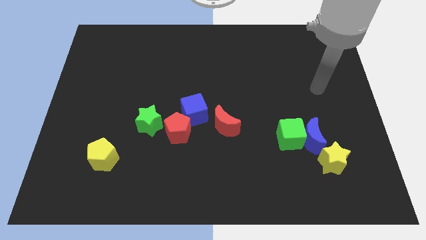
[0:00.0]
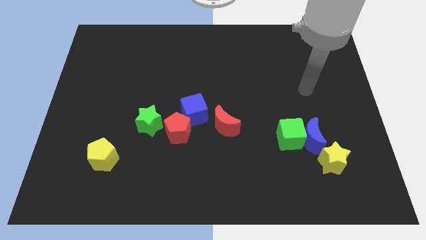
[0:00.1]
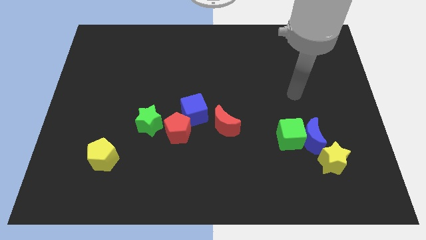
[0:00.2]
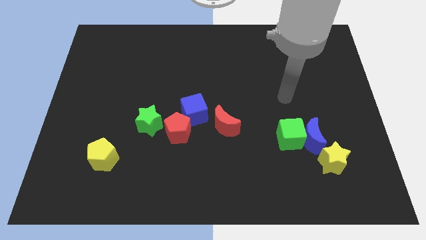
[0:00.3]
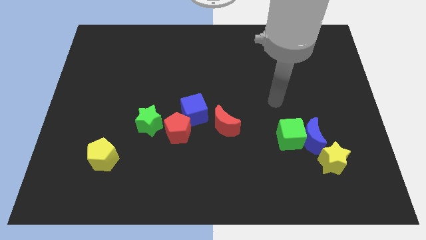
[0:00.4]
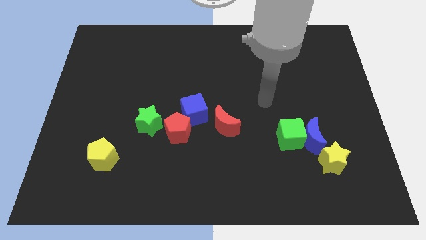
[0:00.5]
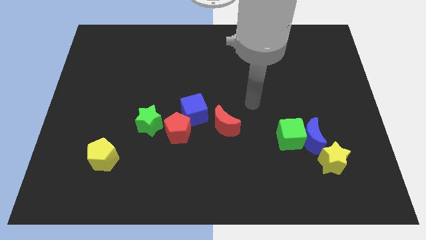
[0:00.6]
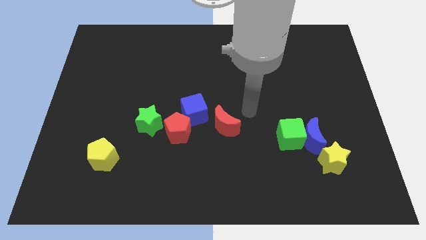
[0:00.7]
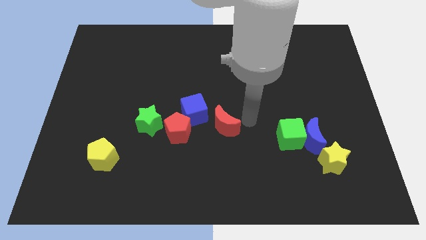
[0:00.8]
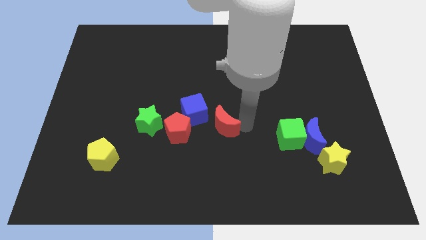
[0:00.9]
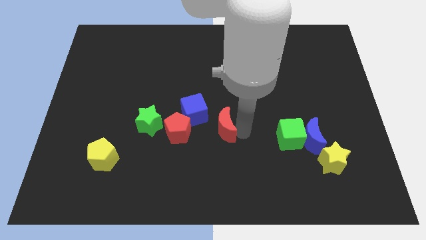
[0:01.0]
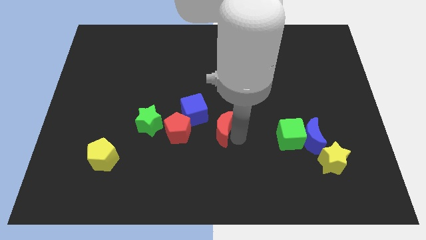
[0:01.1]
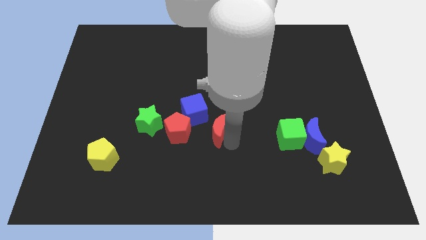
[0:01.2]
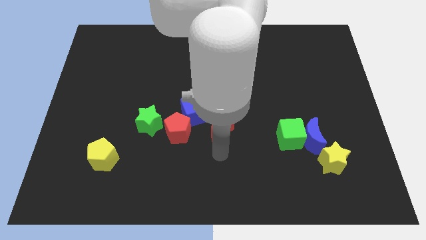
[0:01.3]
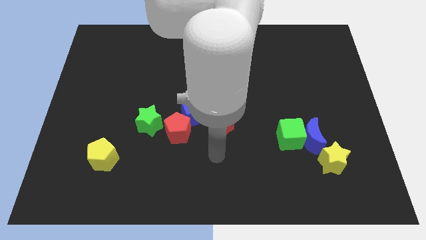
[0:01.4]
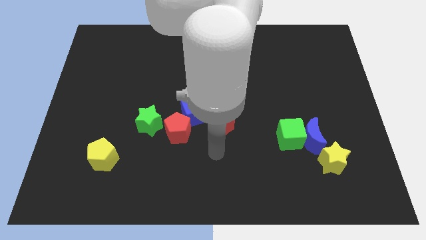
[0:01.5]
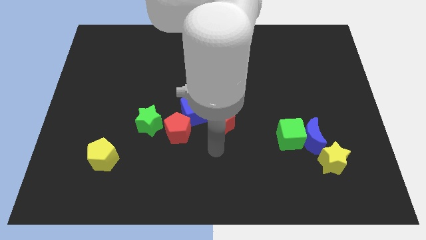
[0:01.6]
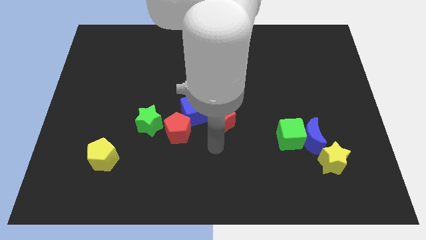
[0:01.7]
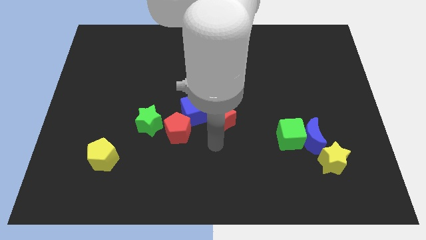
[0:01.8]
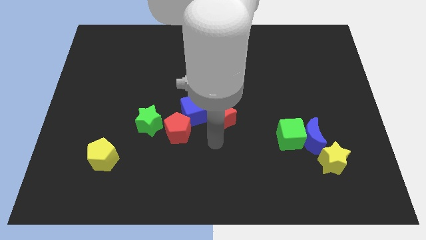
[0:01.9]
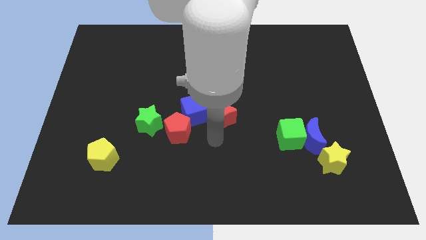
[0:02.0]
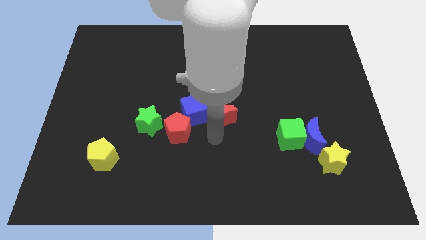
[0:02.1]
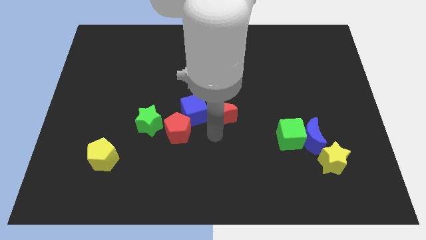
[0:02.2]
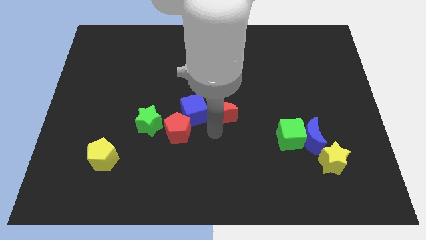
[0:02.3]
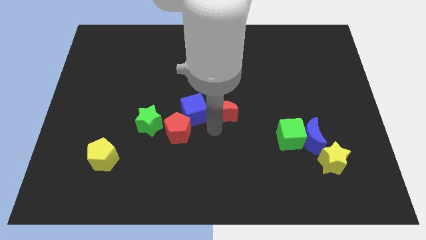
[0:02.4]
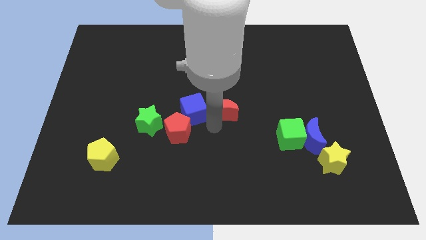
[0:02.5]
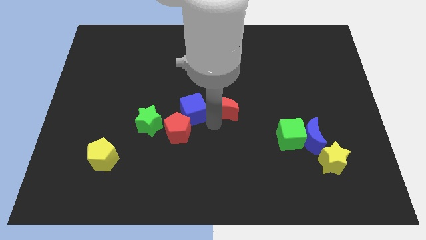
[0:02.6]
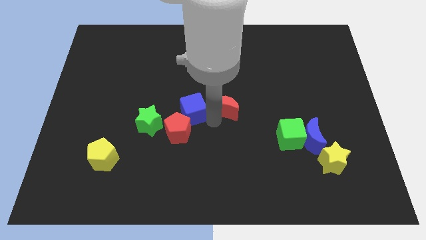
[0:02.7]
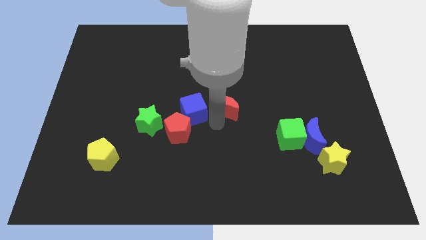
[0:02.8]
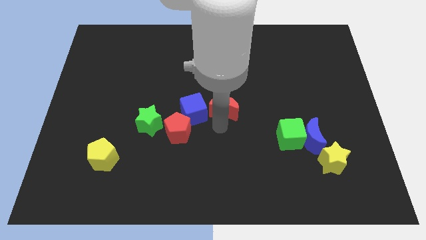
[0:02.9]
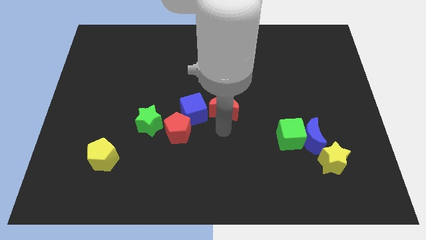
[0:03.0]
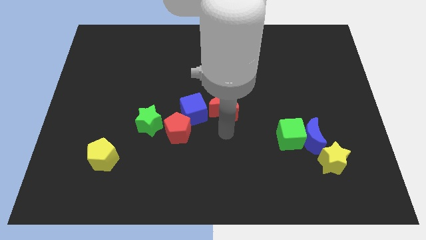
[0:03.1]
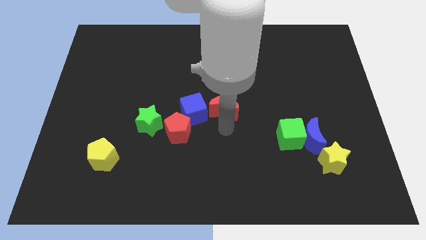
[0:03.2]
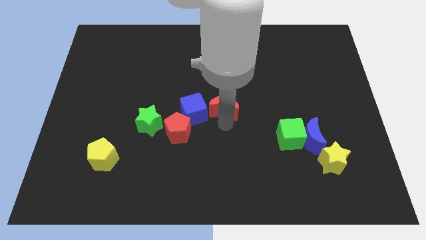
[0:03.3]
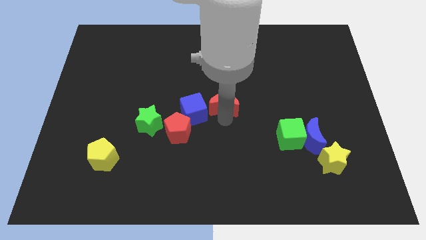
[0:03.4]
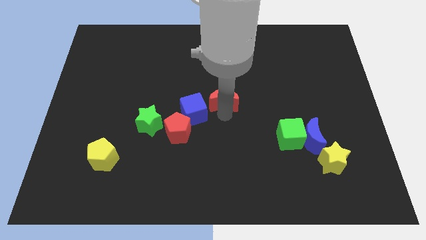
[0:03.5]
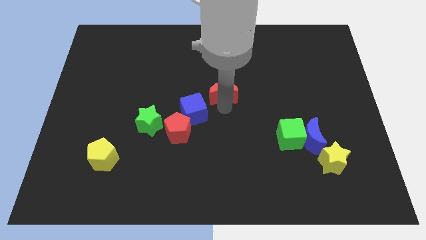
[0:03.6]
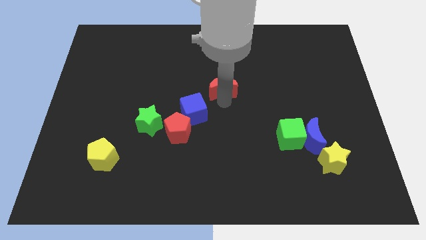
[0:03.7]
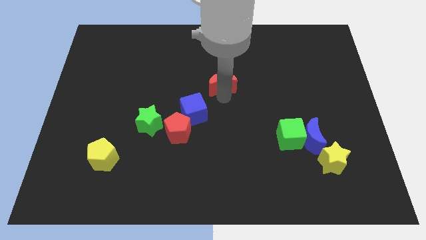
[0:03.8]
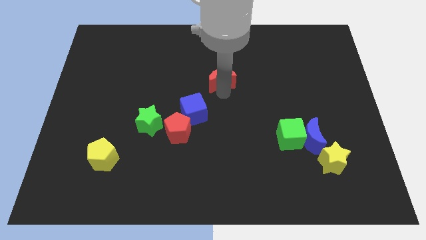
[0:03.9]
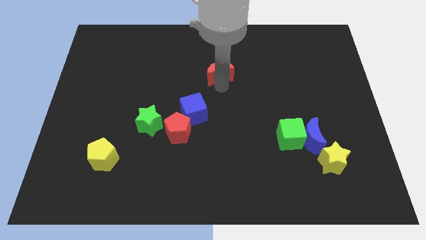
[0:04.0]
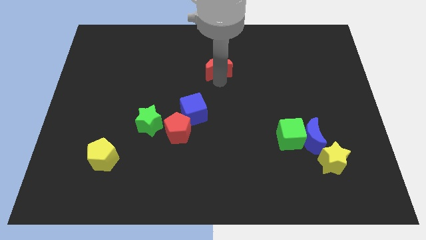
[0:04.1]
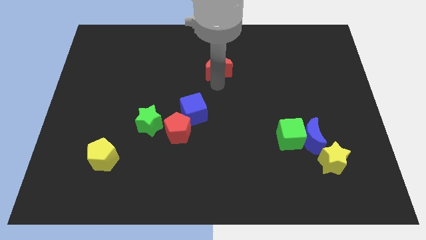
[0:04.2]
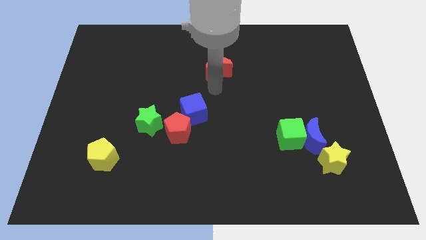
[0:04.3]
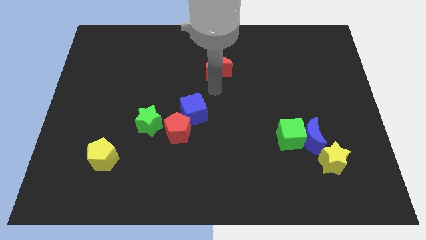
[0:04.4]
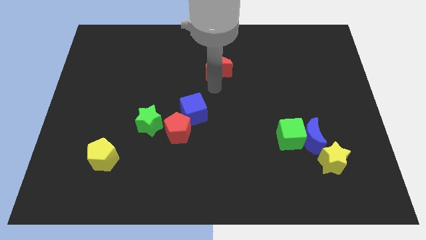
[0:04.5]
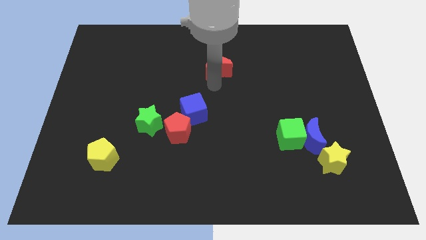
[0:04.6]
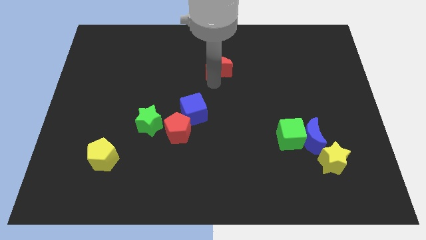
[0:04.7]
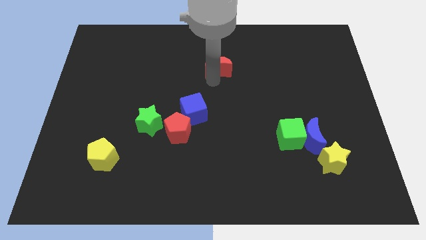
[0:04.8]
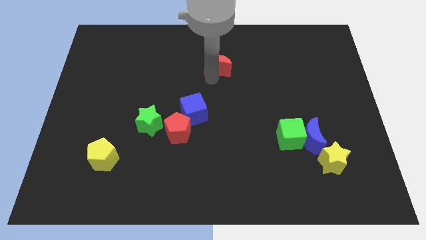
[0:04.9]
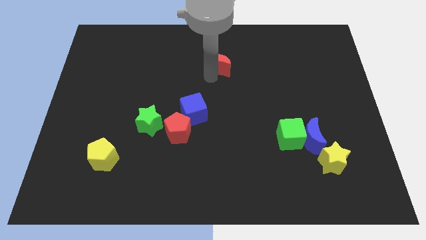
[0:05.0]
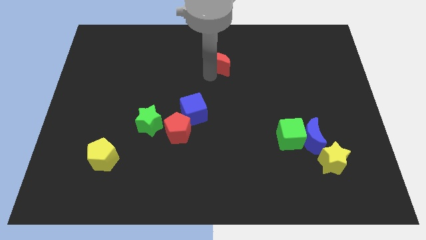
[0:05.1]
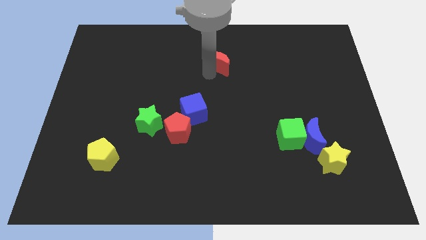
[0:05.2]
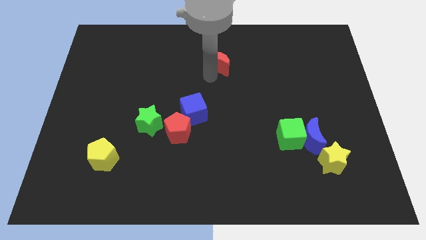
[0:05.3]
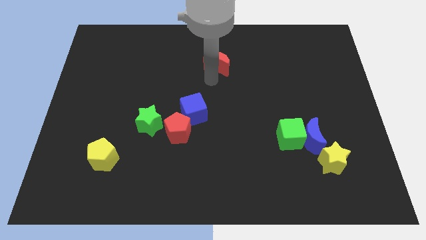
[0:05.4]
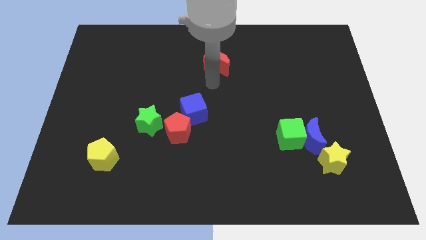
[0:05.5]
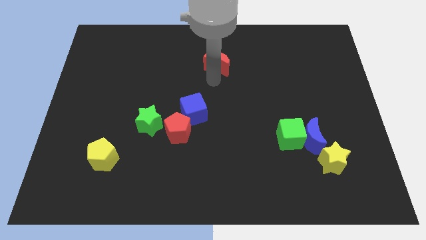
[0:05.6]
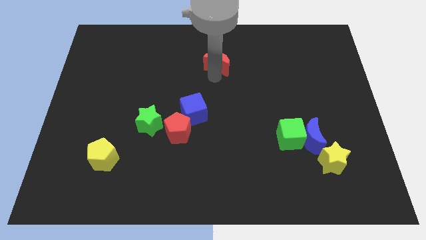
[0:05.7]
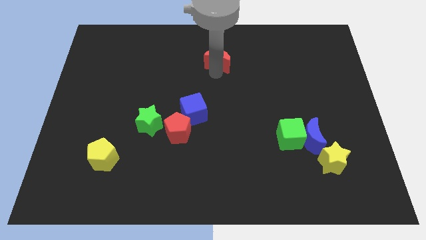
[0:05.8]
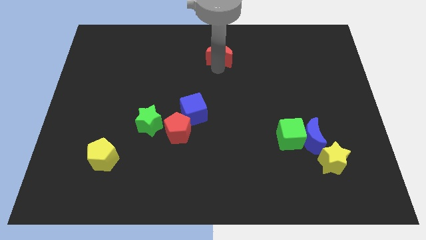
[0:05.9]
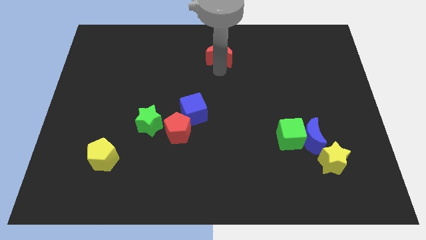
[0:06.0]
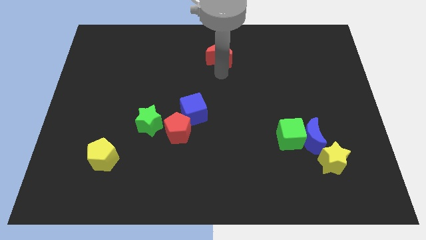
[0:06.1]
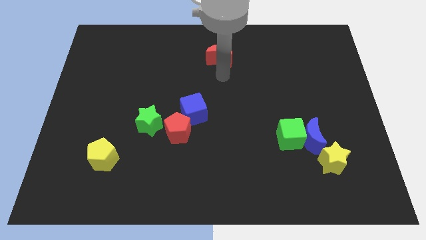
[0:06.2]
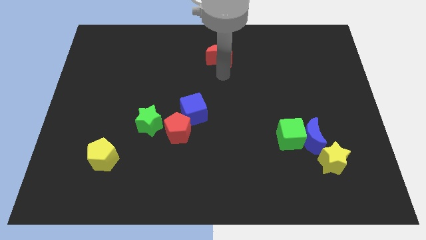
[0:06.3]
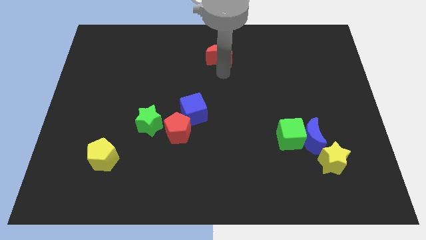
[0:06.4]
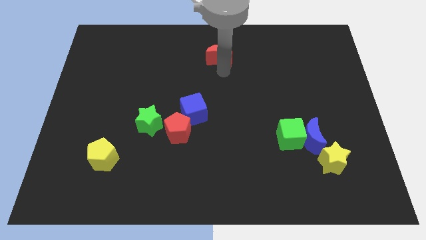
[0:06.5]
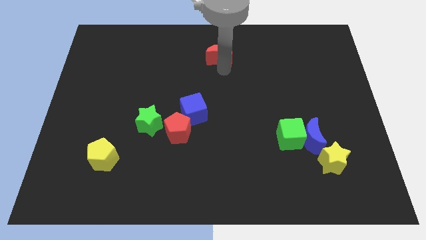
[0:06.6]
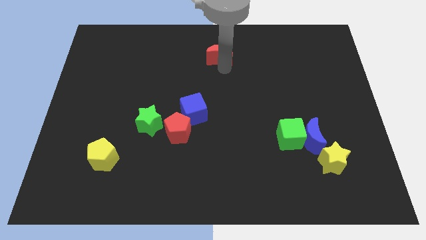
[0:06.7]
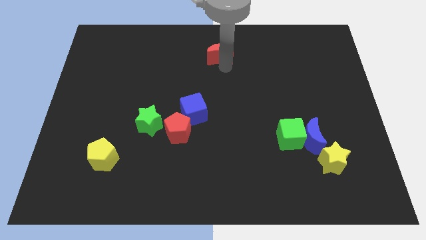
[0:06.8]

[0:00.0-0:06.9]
move the red moon to the top side
